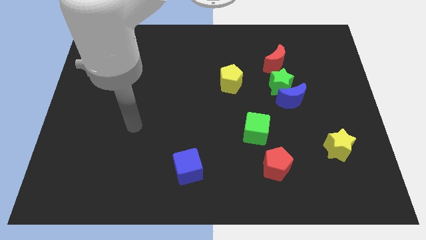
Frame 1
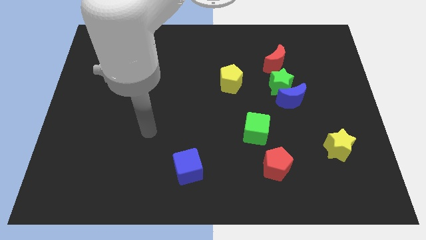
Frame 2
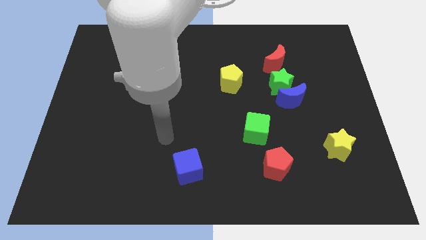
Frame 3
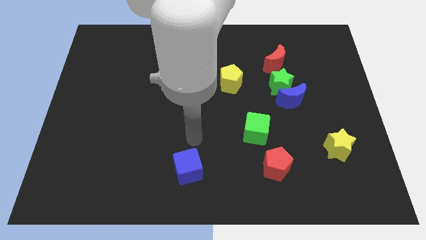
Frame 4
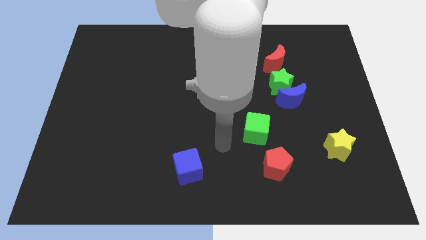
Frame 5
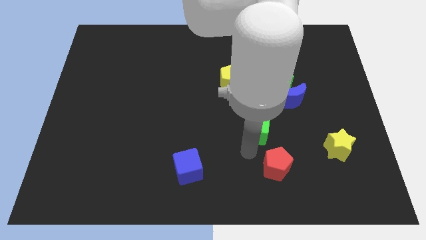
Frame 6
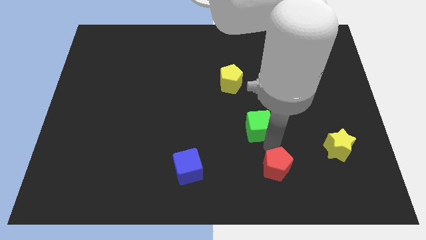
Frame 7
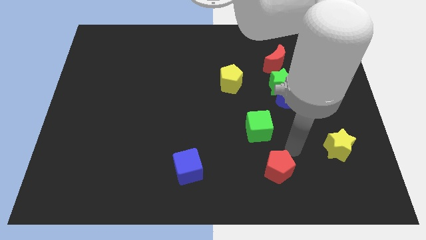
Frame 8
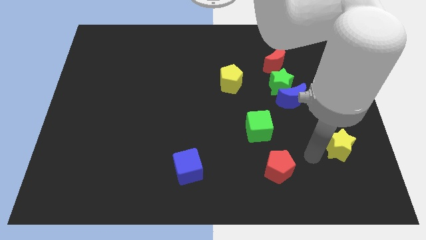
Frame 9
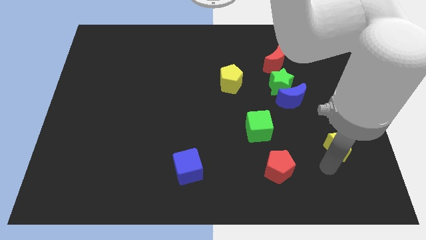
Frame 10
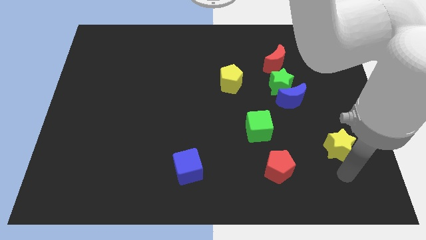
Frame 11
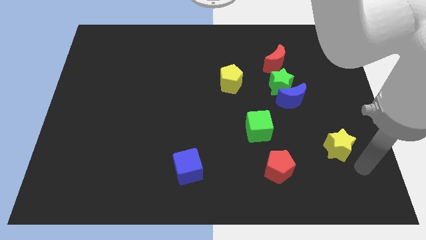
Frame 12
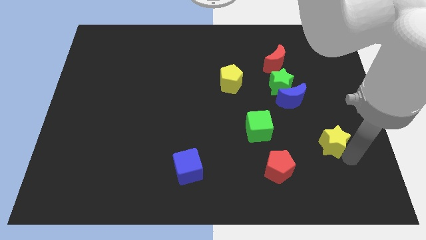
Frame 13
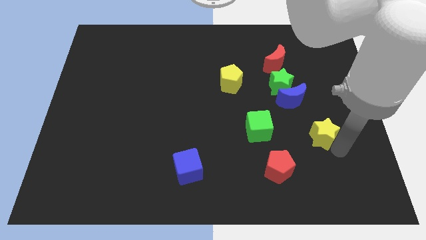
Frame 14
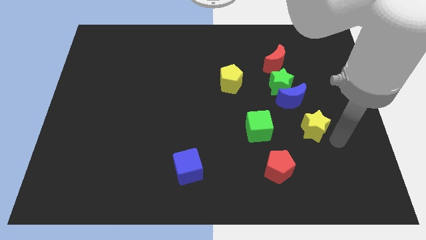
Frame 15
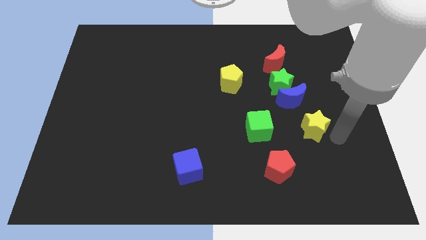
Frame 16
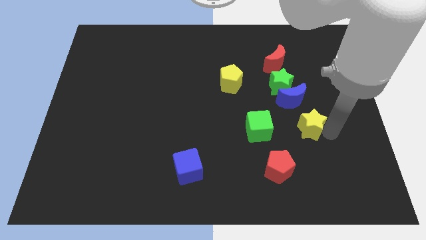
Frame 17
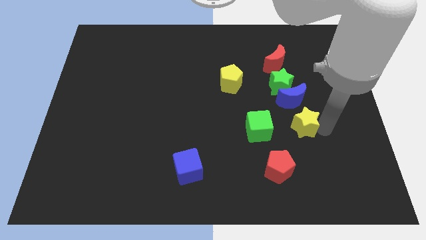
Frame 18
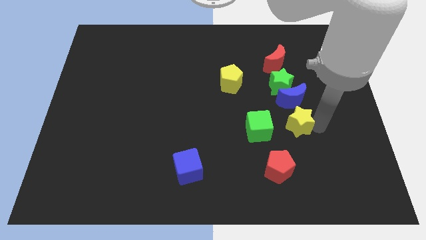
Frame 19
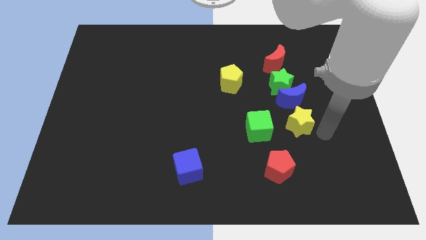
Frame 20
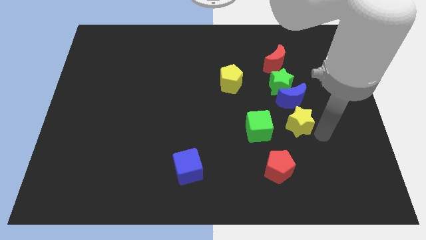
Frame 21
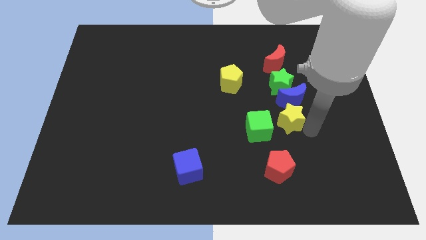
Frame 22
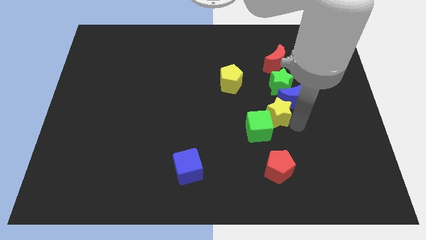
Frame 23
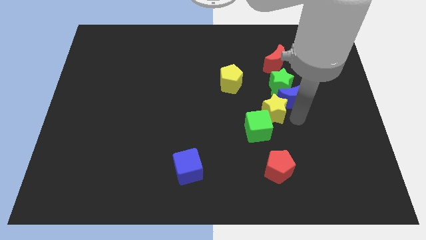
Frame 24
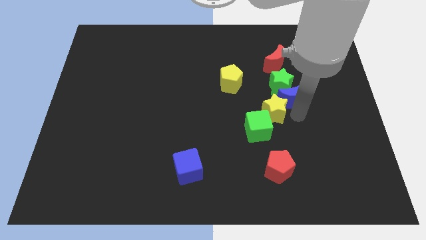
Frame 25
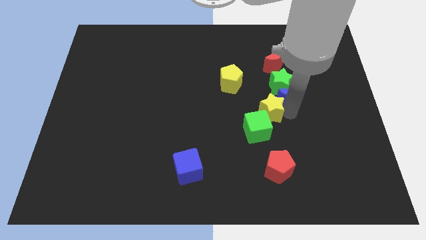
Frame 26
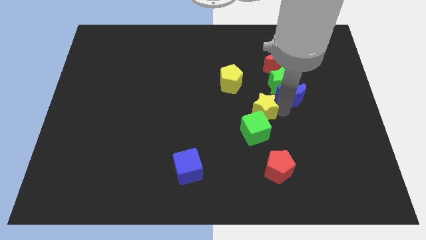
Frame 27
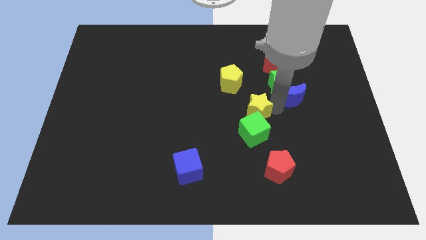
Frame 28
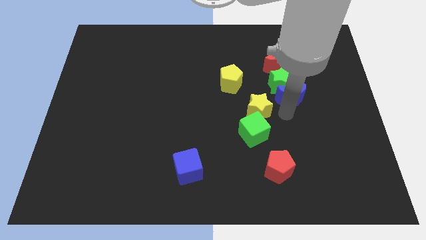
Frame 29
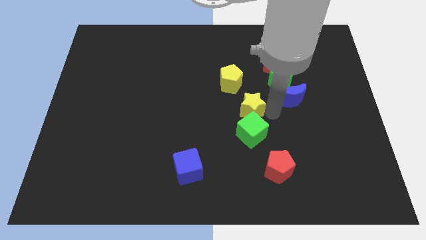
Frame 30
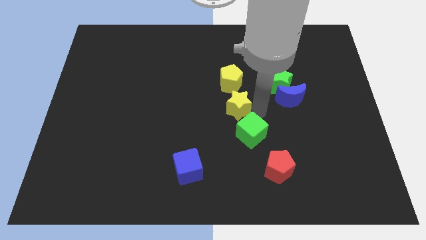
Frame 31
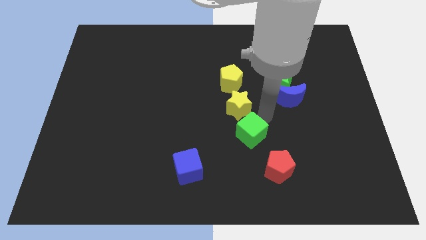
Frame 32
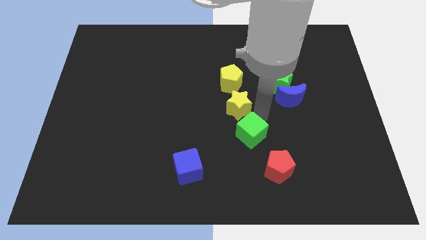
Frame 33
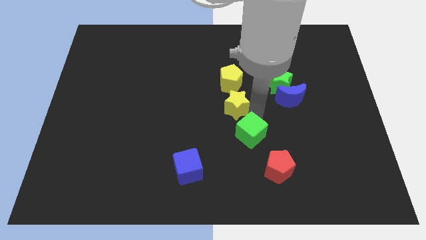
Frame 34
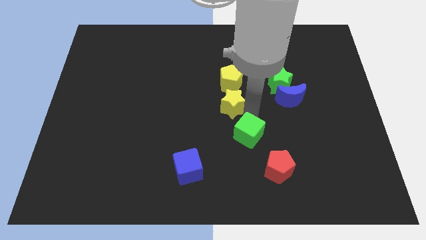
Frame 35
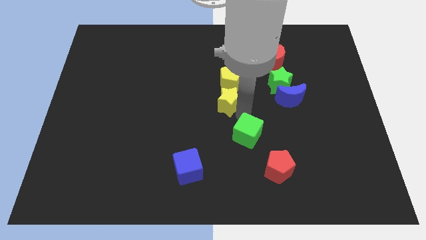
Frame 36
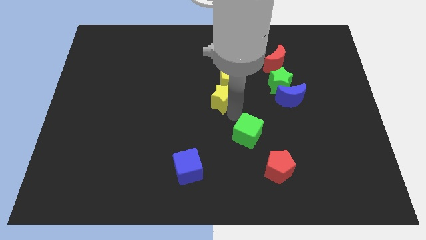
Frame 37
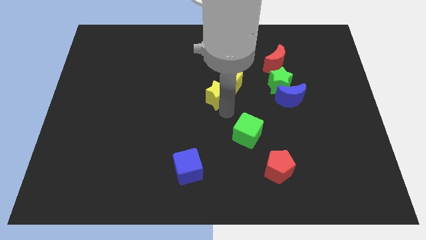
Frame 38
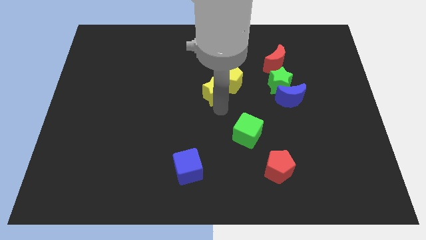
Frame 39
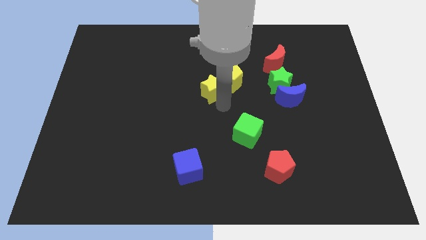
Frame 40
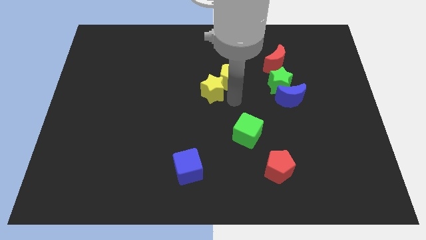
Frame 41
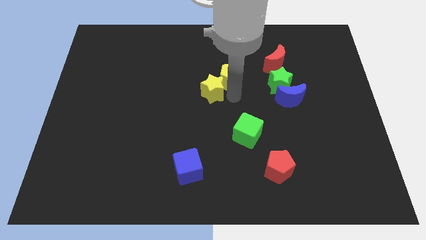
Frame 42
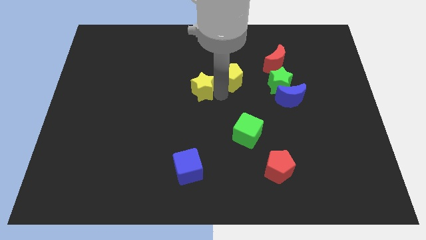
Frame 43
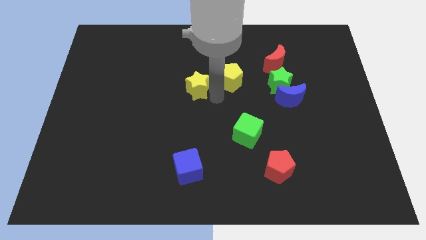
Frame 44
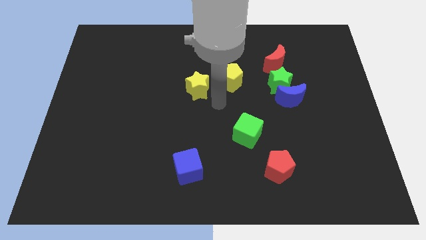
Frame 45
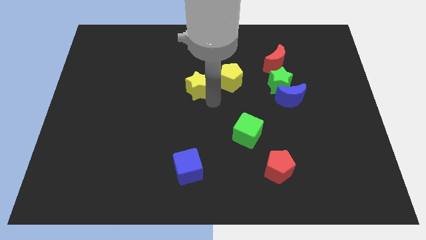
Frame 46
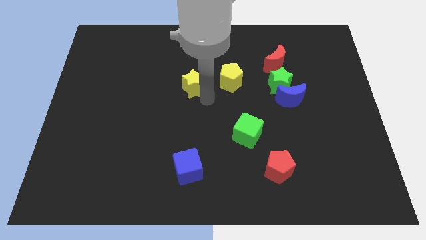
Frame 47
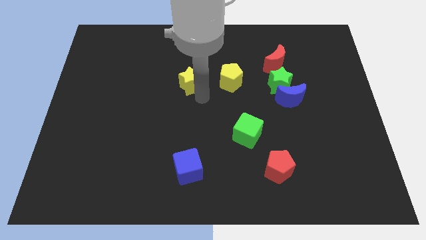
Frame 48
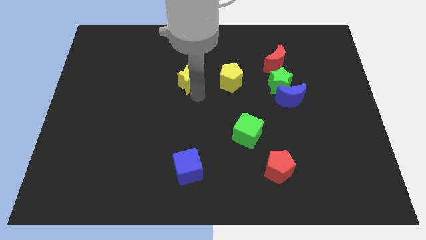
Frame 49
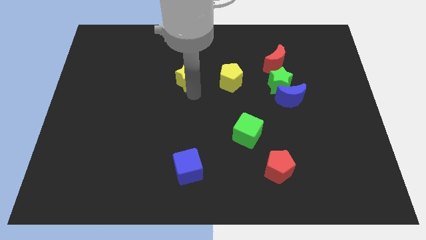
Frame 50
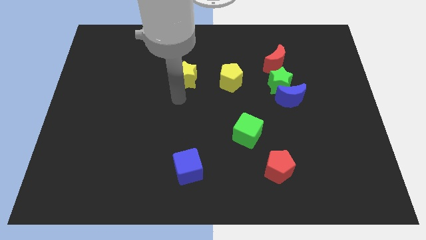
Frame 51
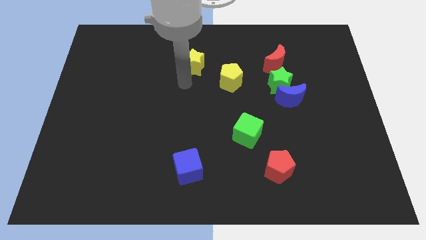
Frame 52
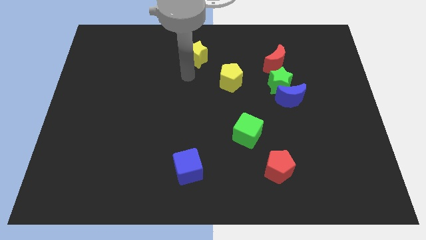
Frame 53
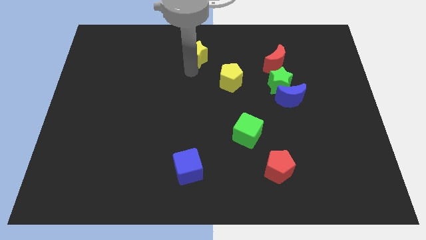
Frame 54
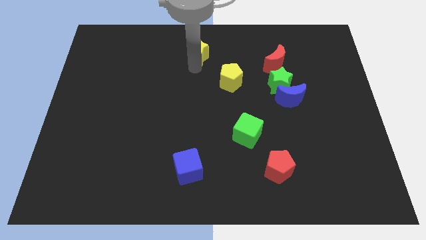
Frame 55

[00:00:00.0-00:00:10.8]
put the yellow star to the towards your base
